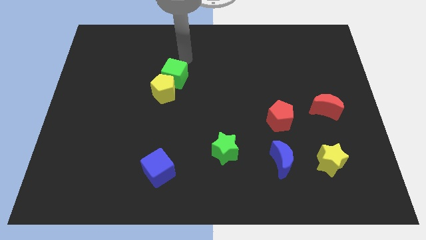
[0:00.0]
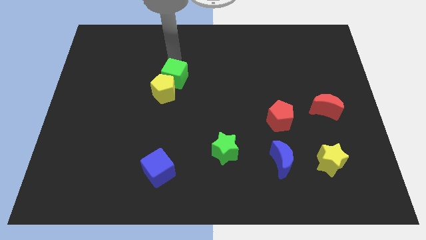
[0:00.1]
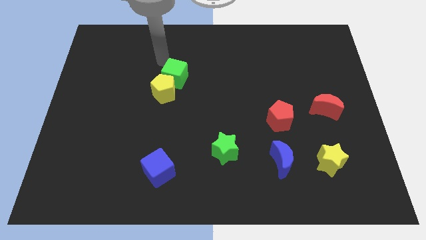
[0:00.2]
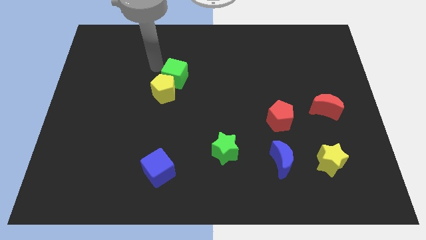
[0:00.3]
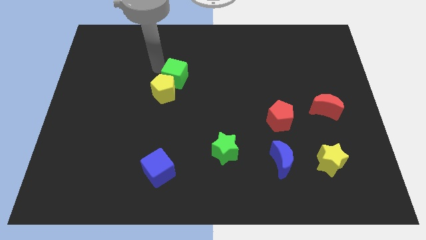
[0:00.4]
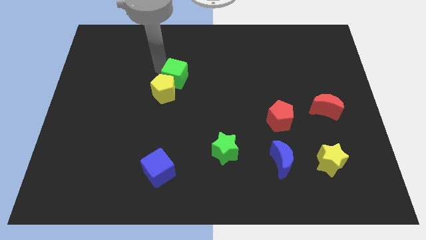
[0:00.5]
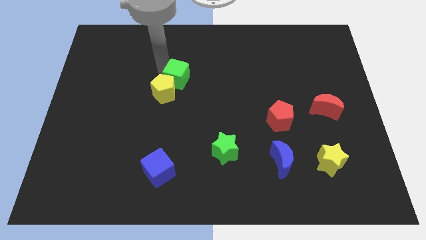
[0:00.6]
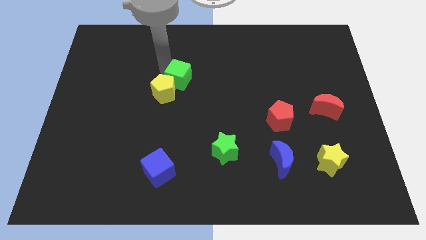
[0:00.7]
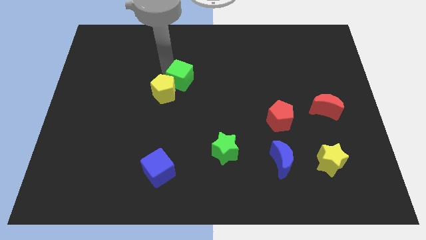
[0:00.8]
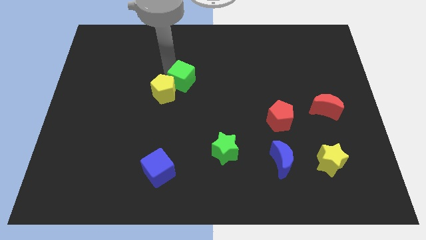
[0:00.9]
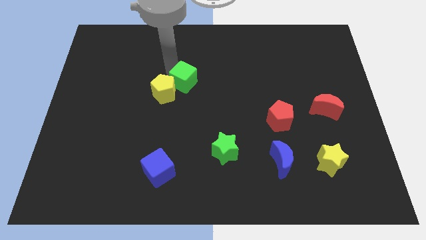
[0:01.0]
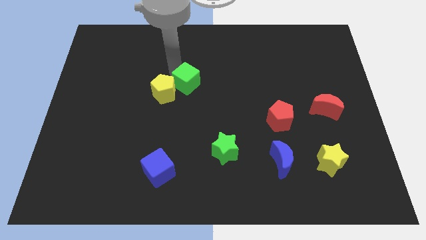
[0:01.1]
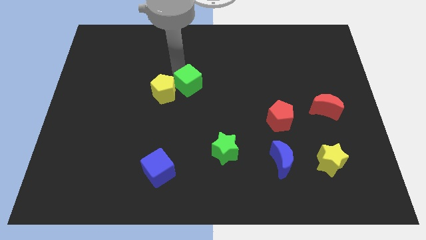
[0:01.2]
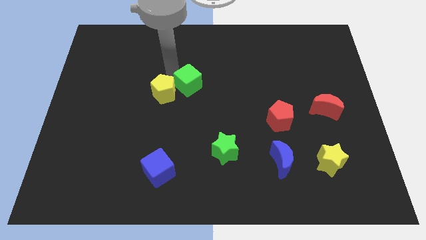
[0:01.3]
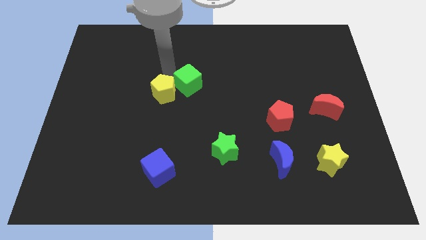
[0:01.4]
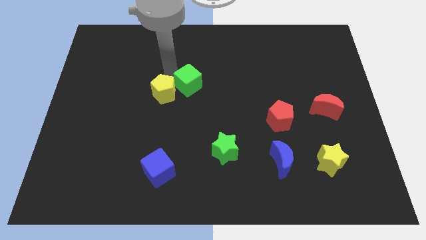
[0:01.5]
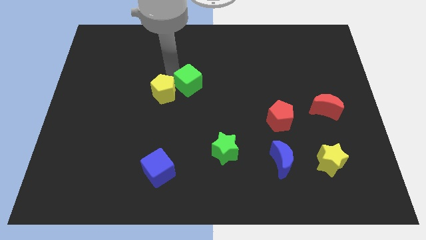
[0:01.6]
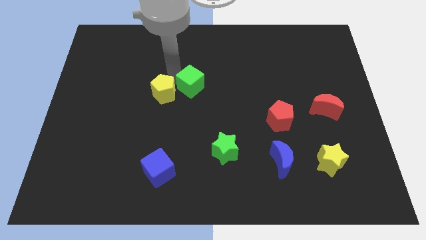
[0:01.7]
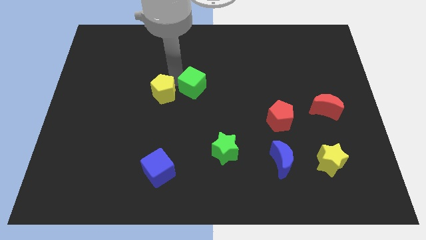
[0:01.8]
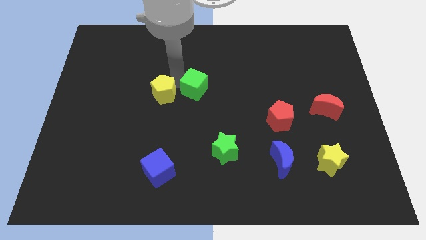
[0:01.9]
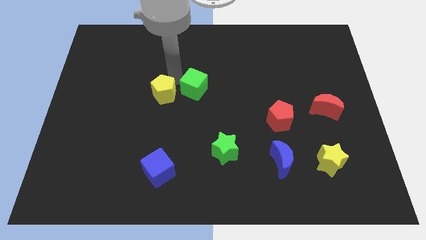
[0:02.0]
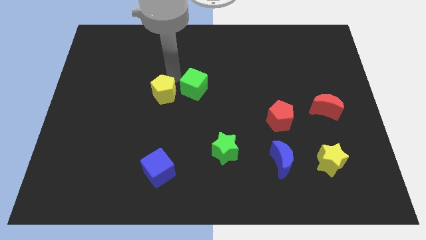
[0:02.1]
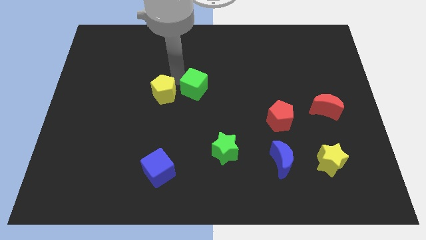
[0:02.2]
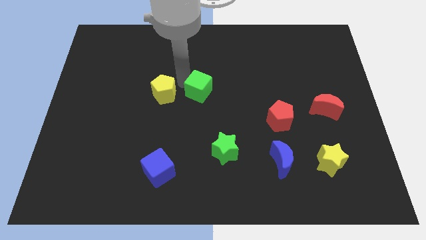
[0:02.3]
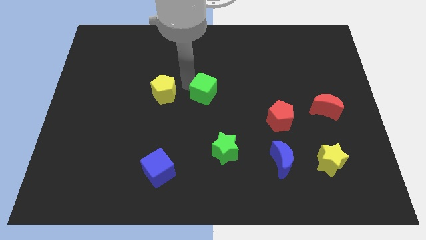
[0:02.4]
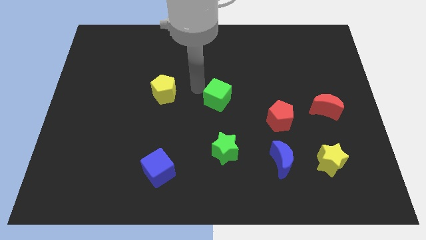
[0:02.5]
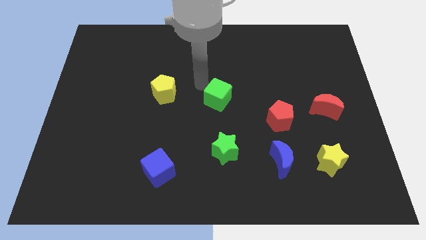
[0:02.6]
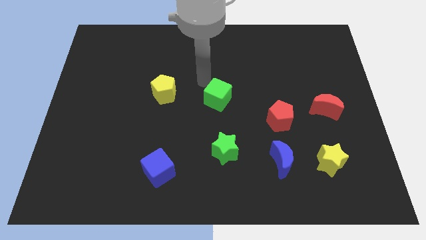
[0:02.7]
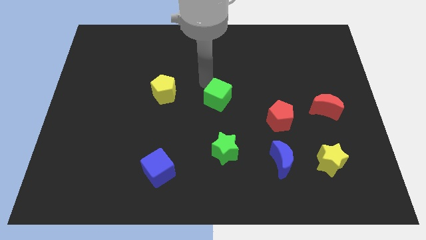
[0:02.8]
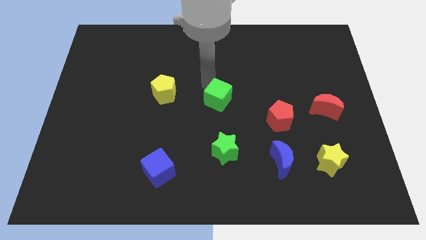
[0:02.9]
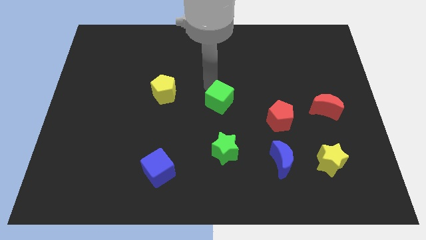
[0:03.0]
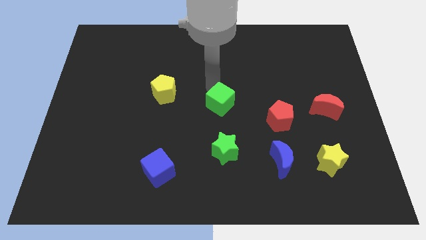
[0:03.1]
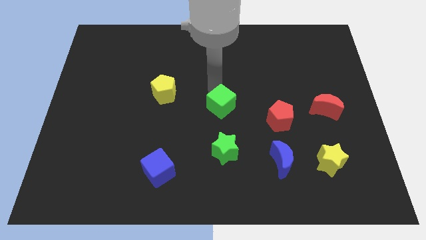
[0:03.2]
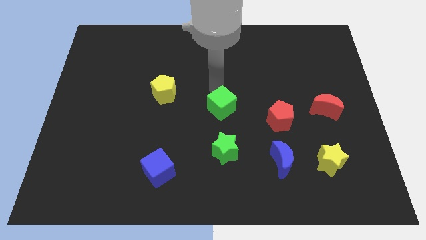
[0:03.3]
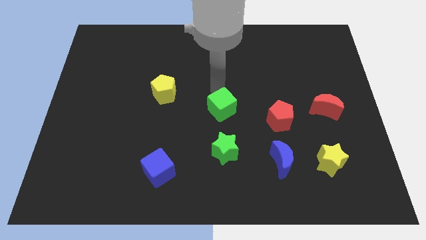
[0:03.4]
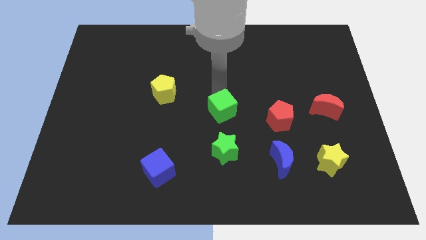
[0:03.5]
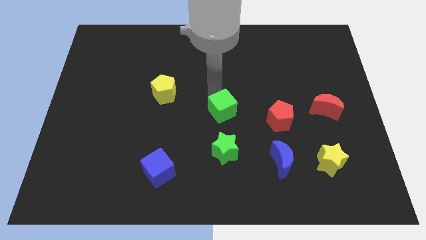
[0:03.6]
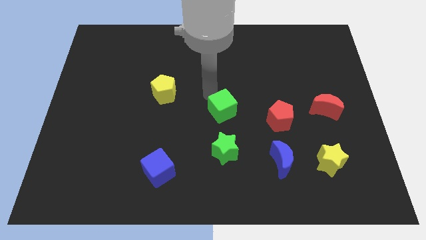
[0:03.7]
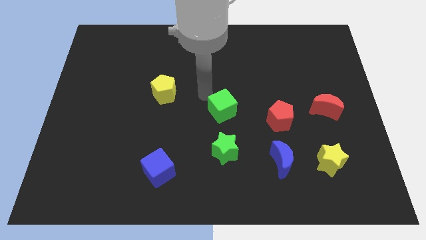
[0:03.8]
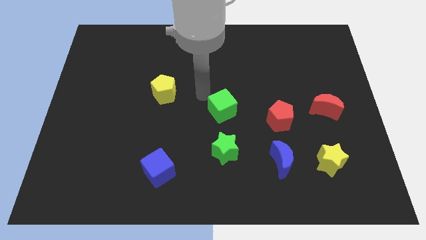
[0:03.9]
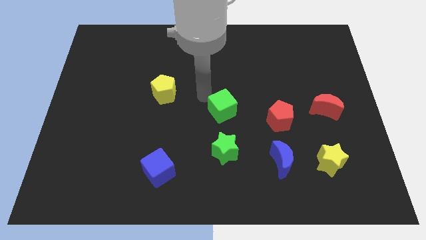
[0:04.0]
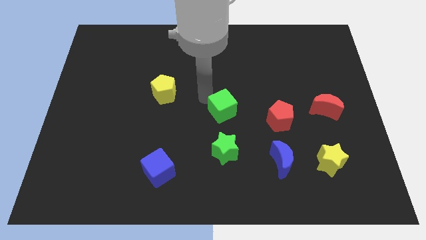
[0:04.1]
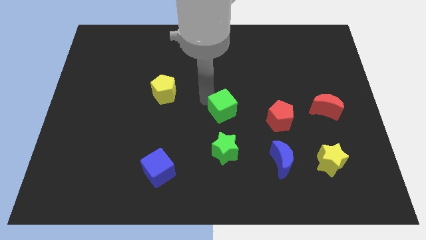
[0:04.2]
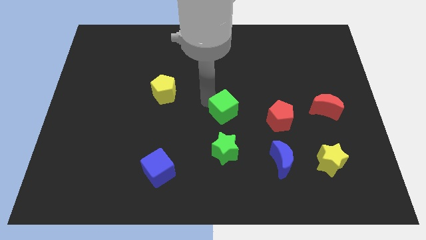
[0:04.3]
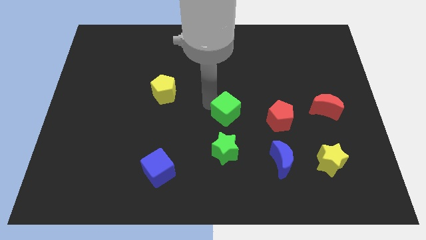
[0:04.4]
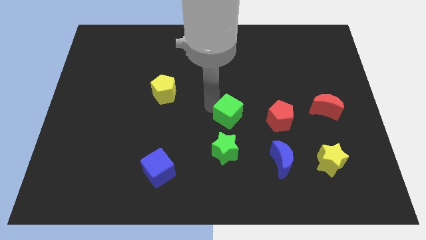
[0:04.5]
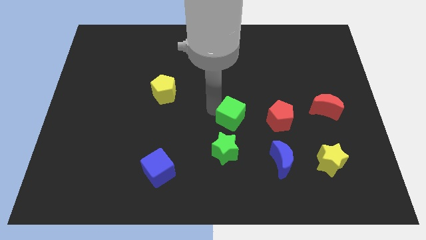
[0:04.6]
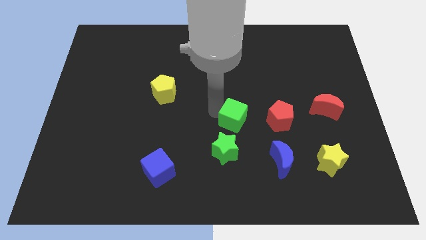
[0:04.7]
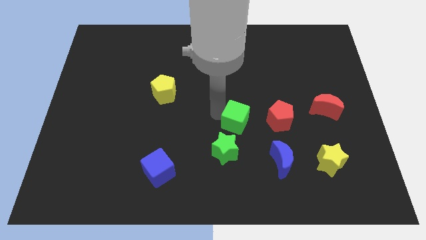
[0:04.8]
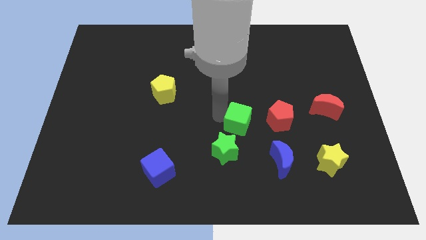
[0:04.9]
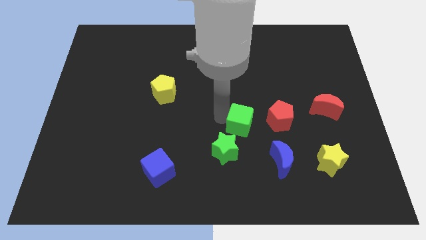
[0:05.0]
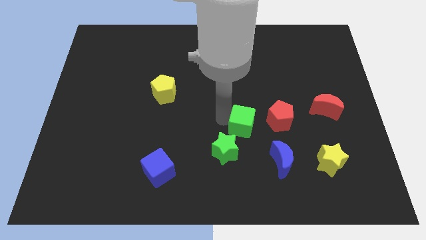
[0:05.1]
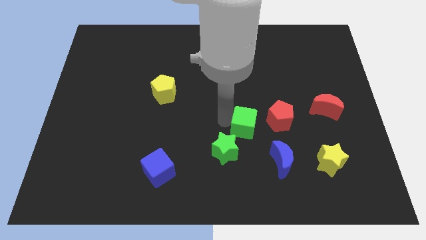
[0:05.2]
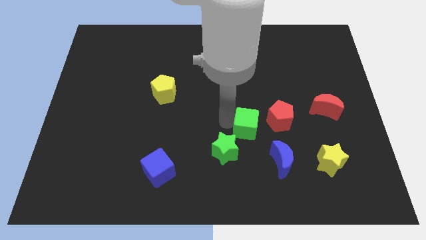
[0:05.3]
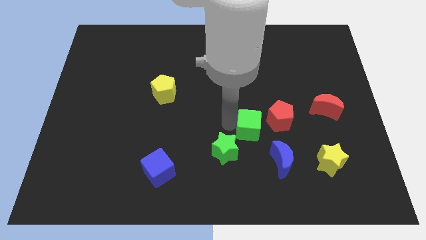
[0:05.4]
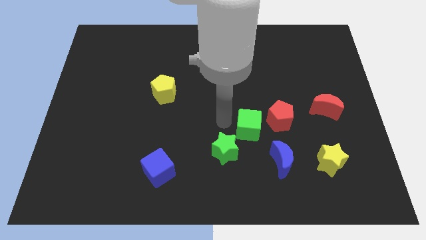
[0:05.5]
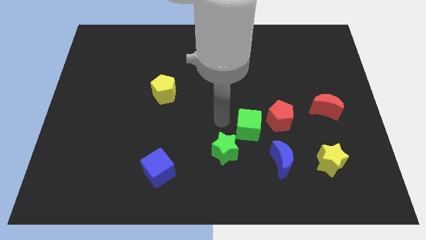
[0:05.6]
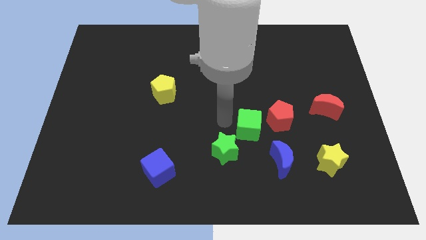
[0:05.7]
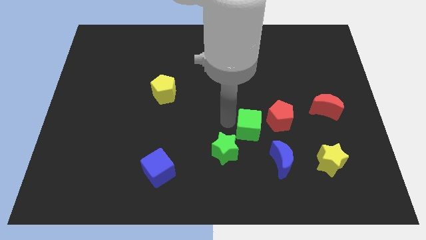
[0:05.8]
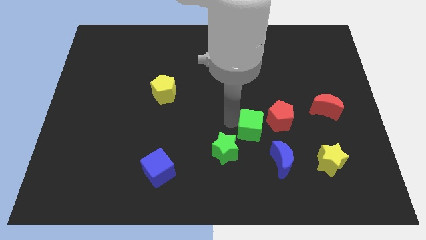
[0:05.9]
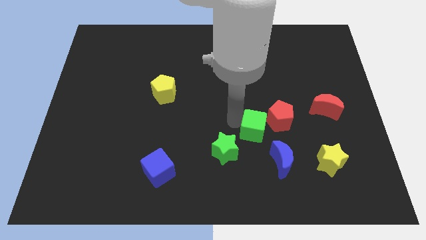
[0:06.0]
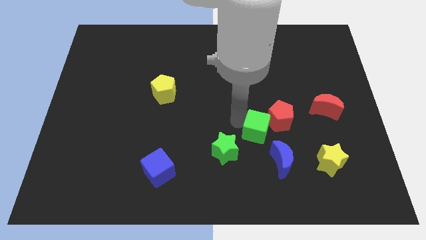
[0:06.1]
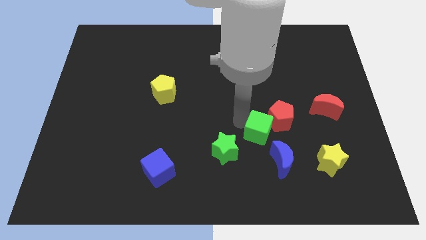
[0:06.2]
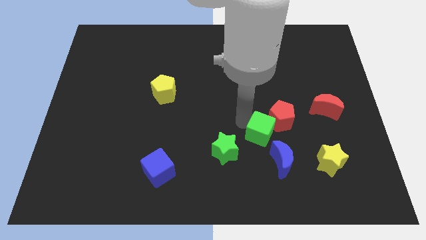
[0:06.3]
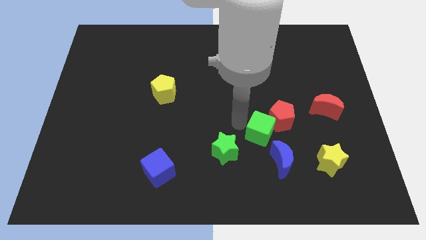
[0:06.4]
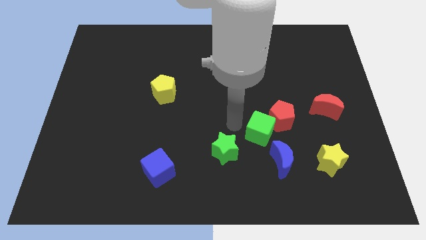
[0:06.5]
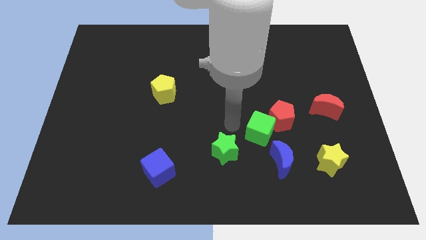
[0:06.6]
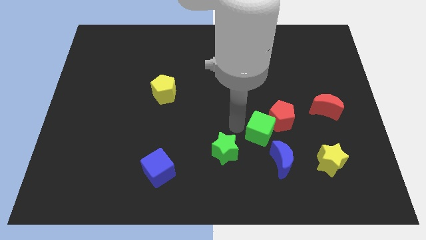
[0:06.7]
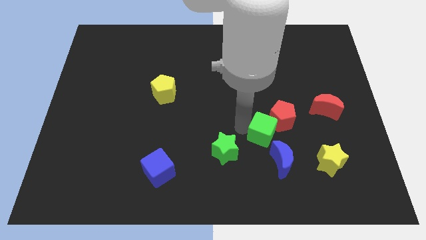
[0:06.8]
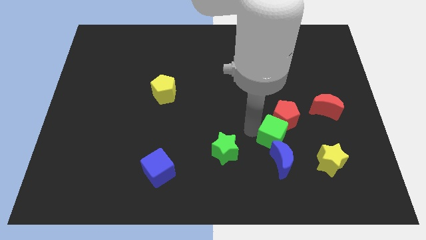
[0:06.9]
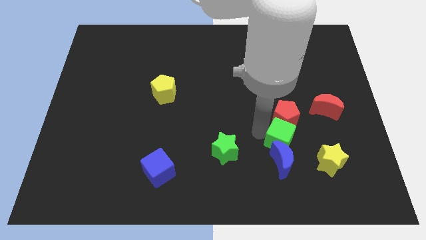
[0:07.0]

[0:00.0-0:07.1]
put the green cube to the top left side of the yellow star
